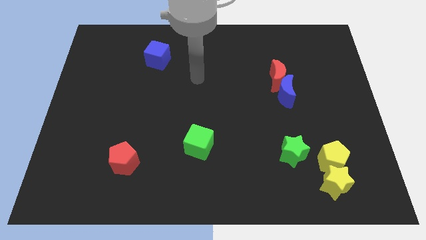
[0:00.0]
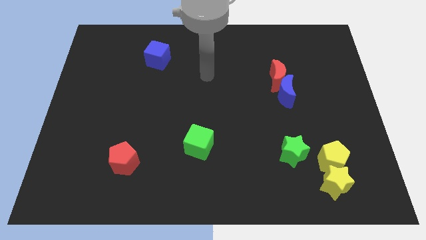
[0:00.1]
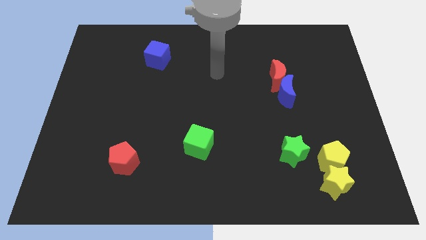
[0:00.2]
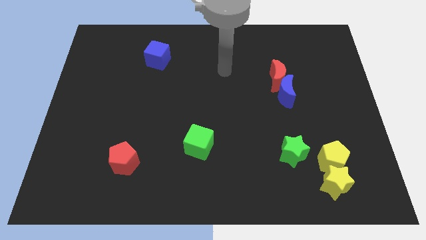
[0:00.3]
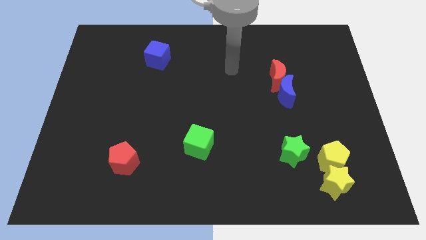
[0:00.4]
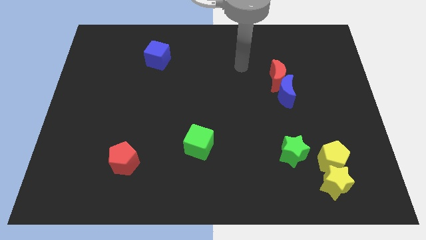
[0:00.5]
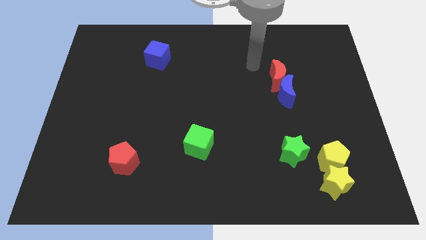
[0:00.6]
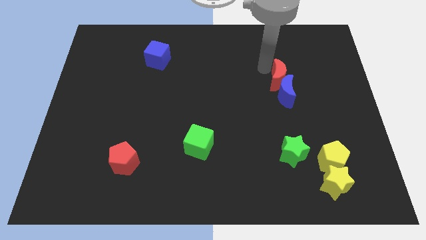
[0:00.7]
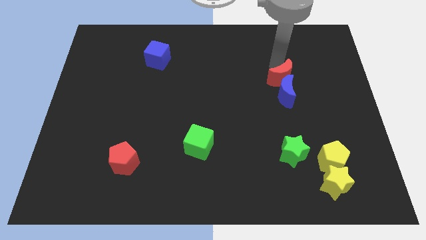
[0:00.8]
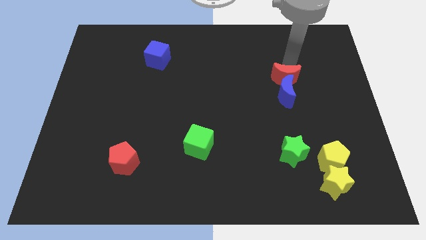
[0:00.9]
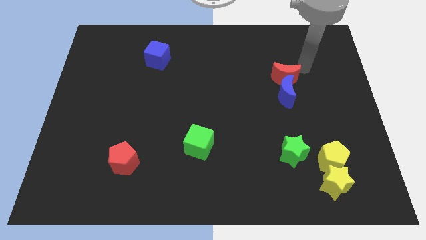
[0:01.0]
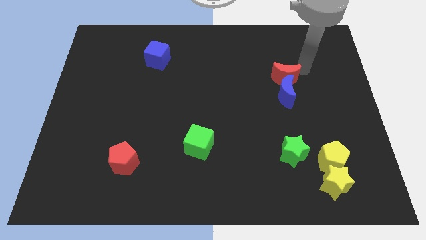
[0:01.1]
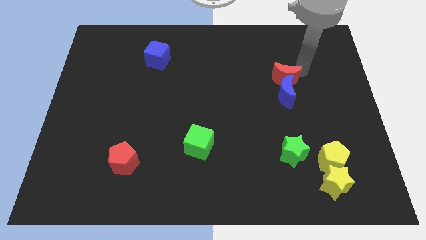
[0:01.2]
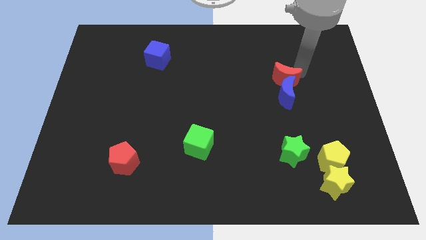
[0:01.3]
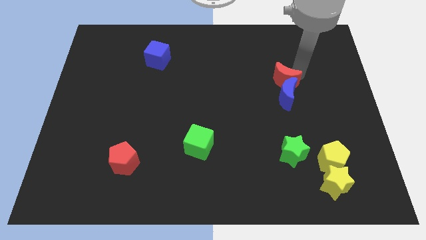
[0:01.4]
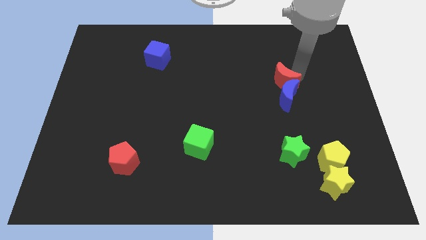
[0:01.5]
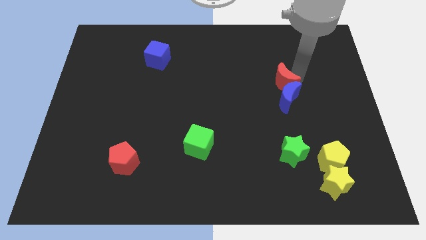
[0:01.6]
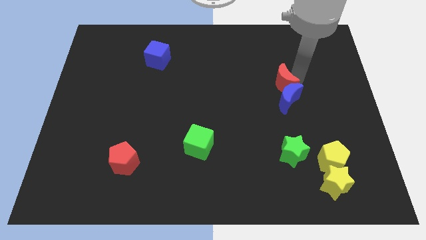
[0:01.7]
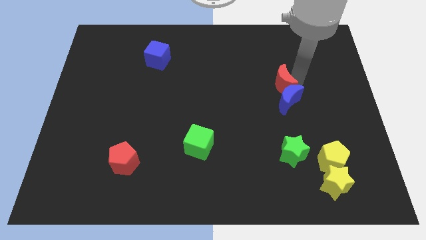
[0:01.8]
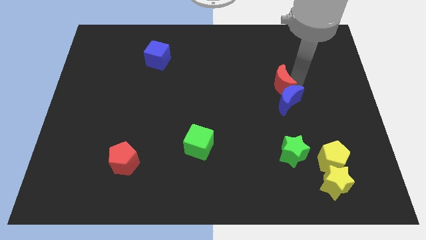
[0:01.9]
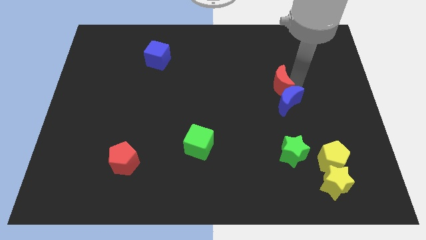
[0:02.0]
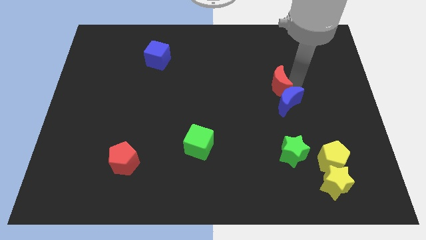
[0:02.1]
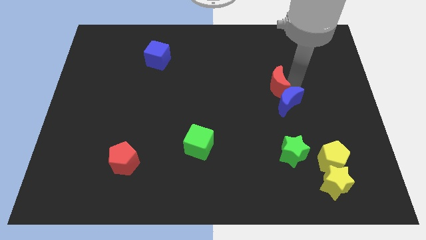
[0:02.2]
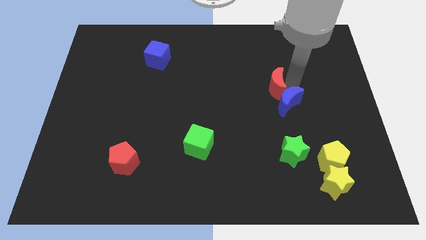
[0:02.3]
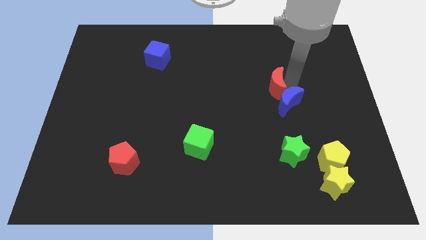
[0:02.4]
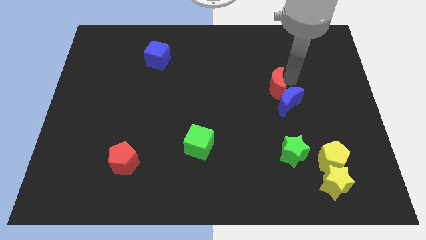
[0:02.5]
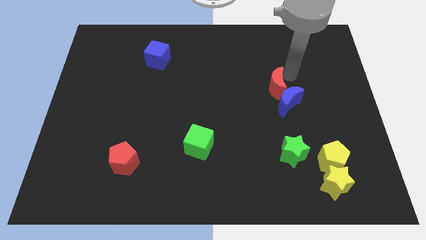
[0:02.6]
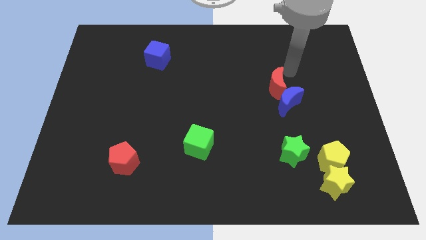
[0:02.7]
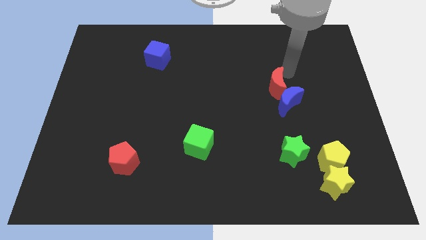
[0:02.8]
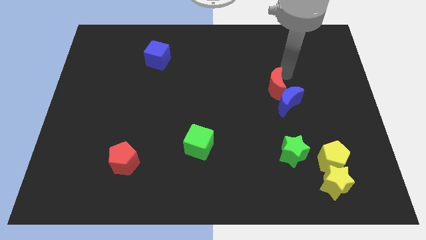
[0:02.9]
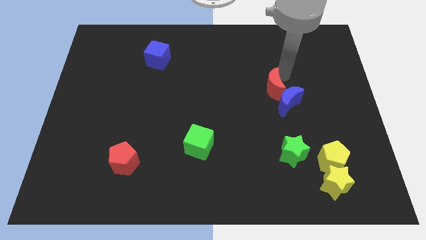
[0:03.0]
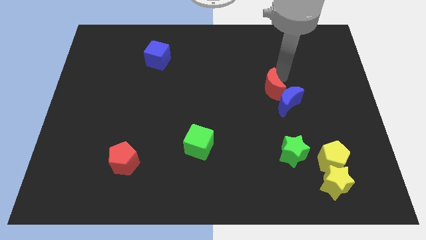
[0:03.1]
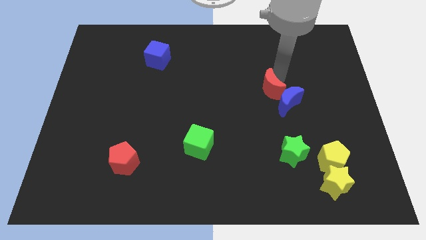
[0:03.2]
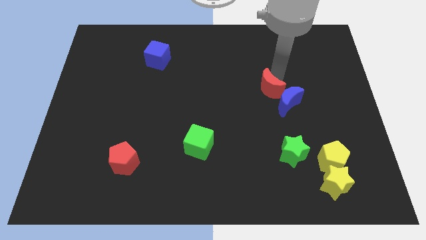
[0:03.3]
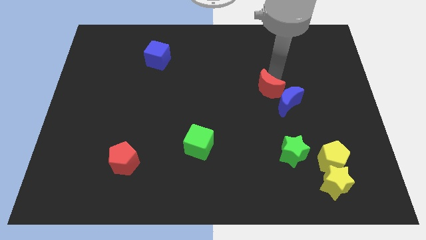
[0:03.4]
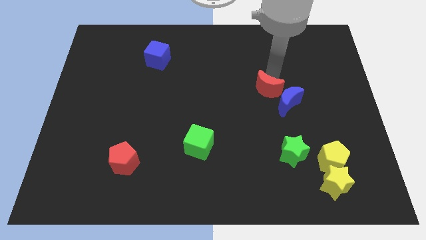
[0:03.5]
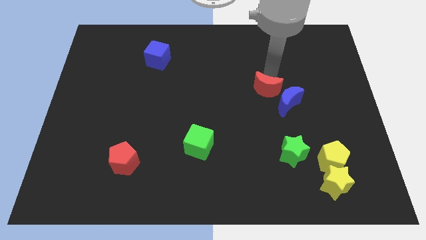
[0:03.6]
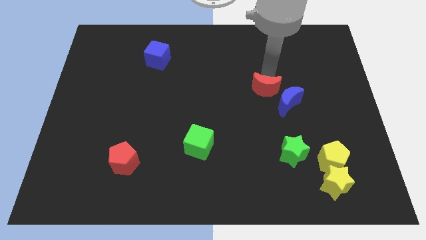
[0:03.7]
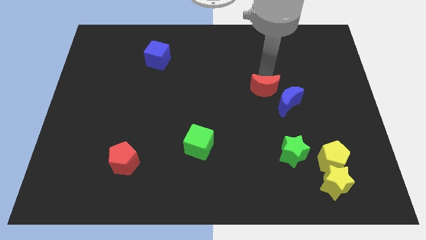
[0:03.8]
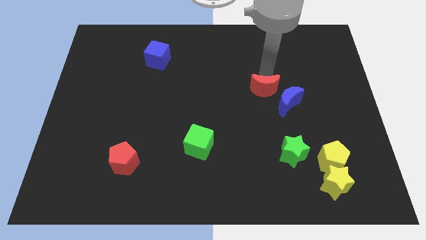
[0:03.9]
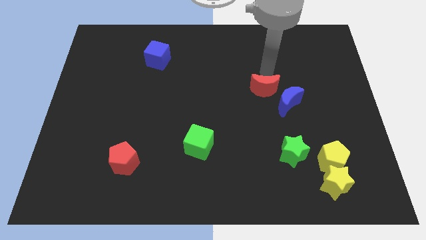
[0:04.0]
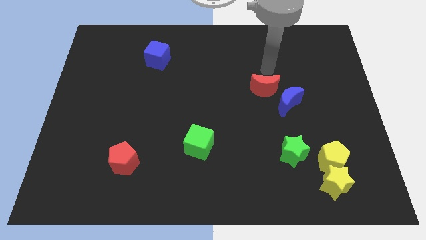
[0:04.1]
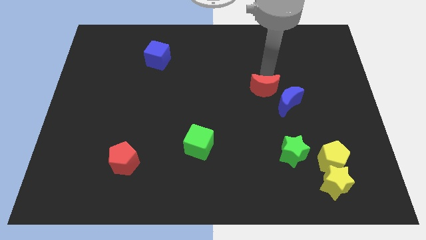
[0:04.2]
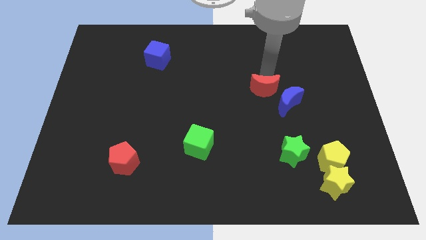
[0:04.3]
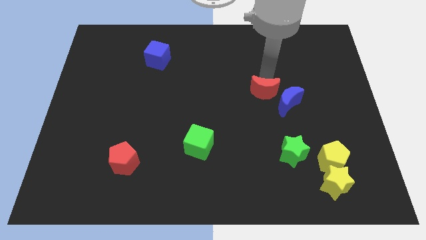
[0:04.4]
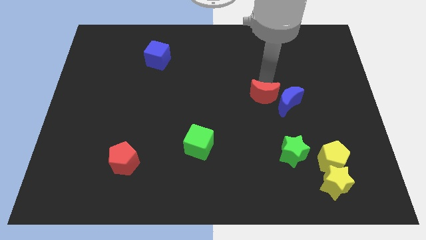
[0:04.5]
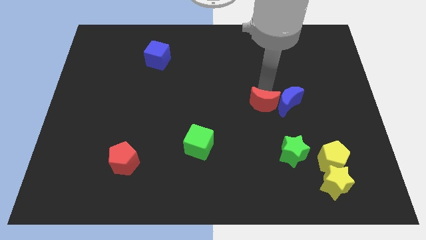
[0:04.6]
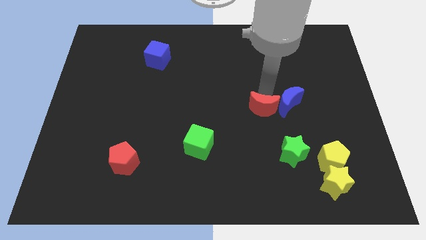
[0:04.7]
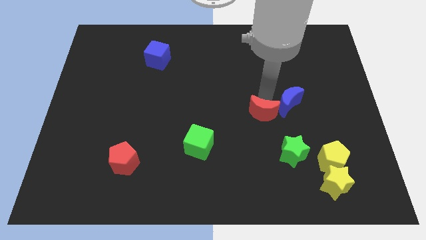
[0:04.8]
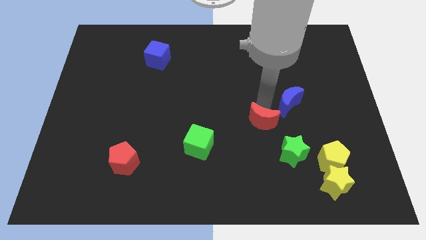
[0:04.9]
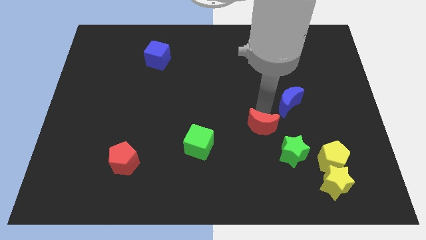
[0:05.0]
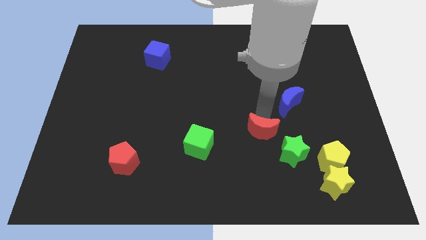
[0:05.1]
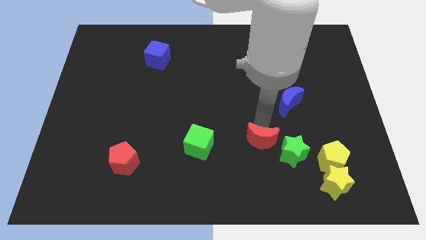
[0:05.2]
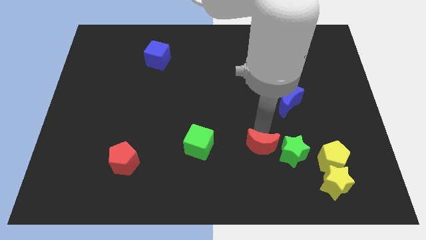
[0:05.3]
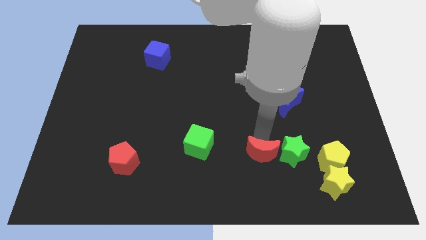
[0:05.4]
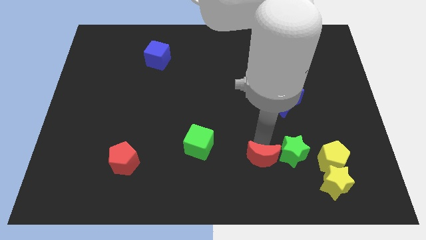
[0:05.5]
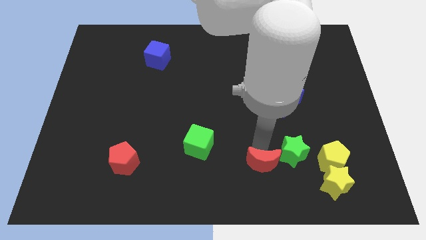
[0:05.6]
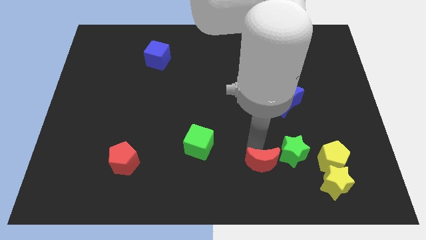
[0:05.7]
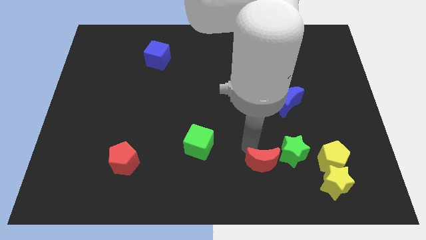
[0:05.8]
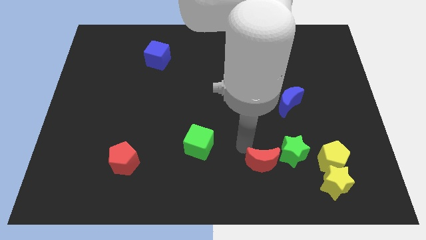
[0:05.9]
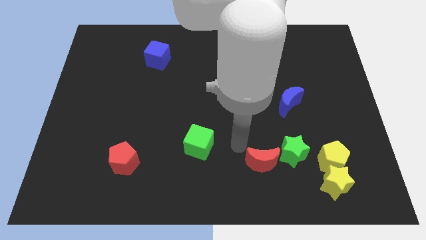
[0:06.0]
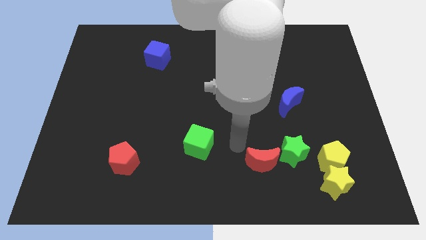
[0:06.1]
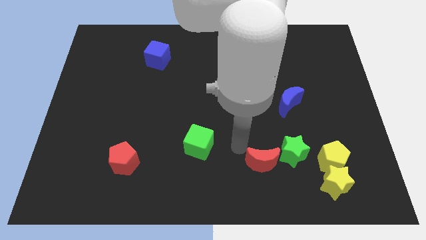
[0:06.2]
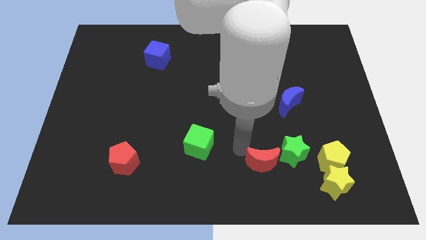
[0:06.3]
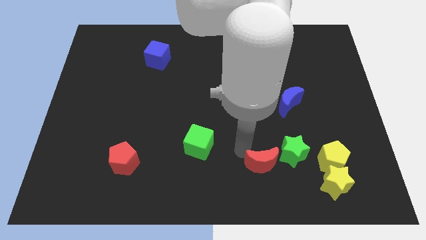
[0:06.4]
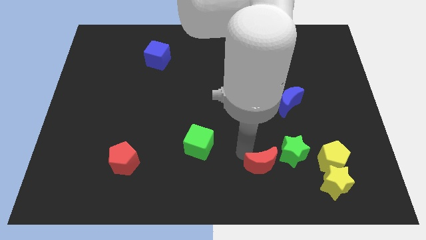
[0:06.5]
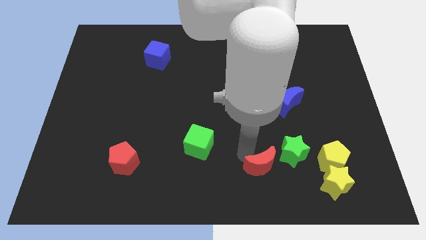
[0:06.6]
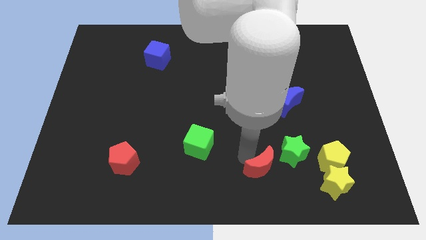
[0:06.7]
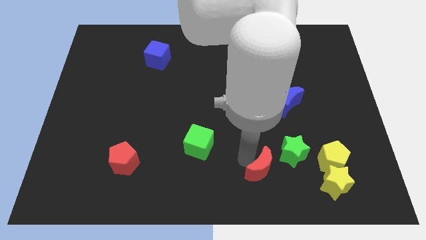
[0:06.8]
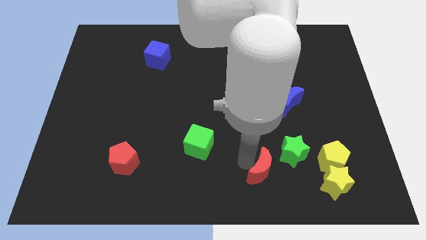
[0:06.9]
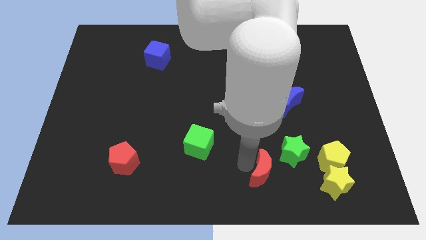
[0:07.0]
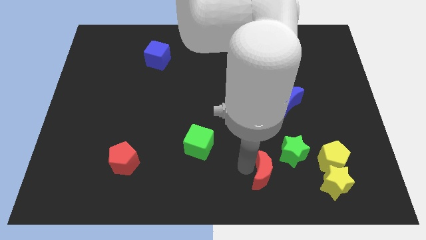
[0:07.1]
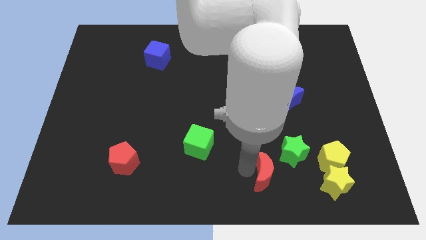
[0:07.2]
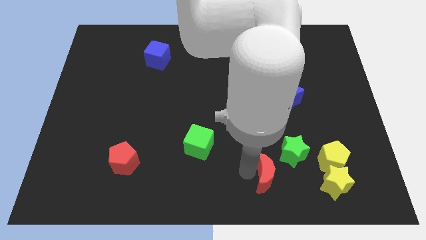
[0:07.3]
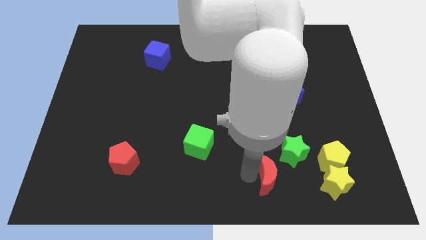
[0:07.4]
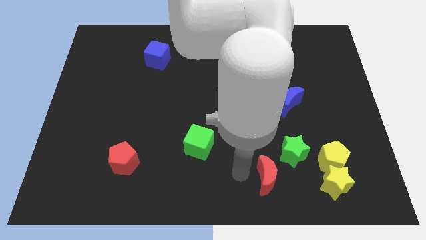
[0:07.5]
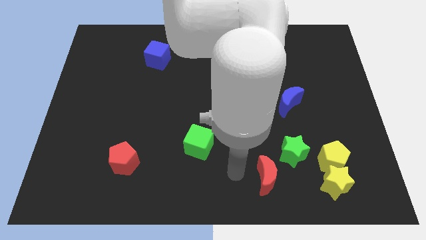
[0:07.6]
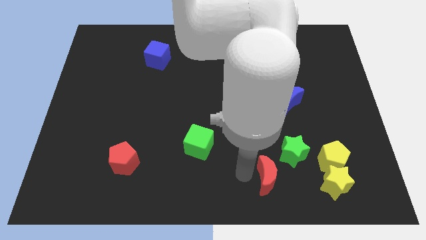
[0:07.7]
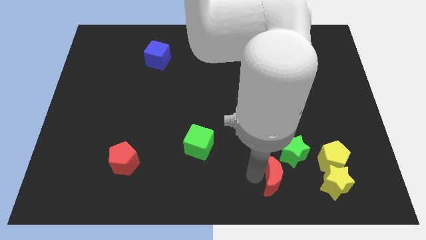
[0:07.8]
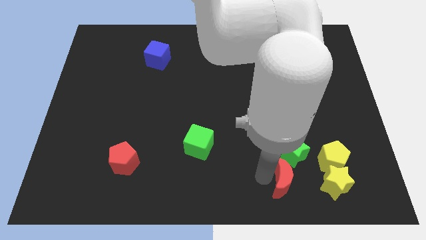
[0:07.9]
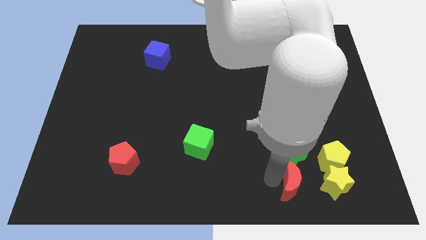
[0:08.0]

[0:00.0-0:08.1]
push the red moon to the bottom left side of the yellow pentagon

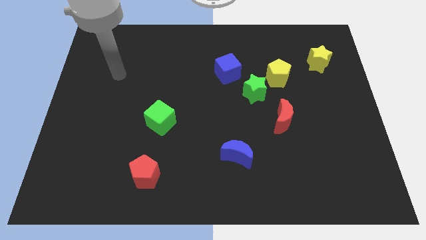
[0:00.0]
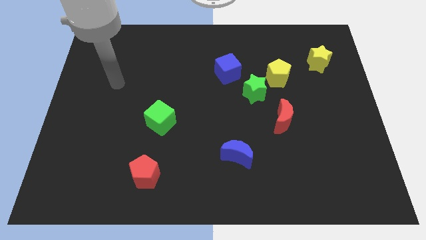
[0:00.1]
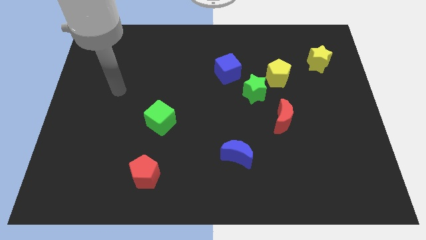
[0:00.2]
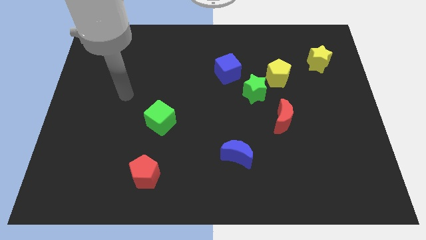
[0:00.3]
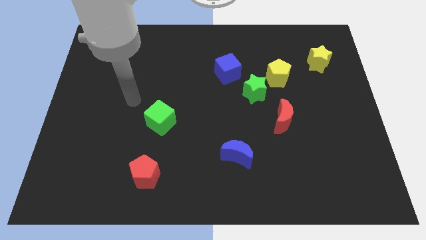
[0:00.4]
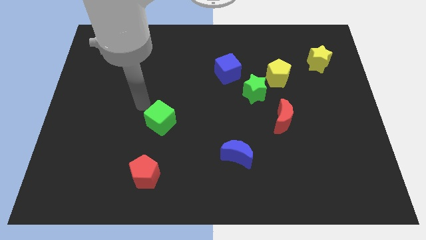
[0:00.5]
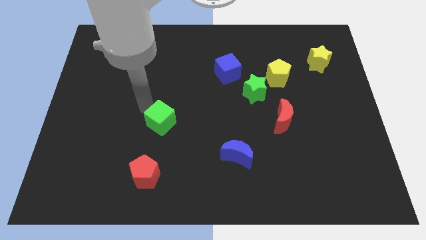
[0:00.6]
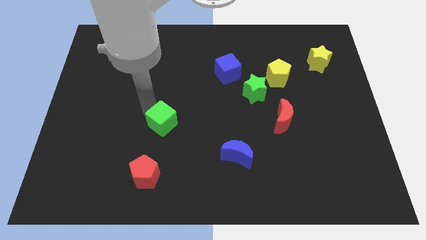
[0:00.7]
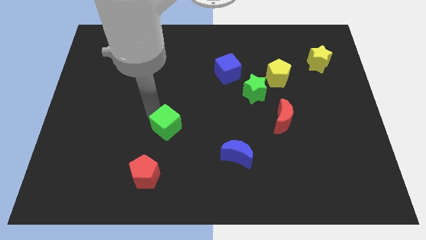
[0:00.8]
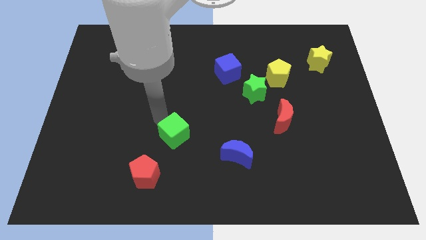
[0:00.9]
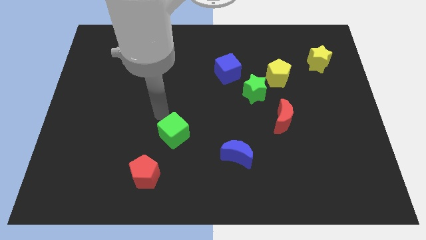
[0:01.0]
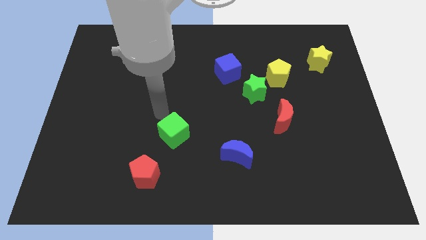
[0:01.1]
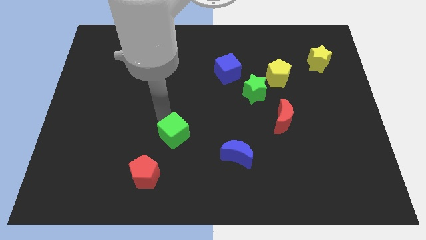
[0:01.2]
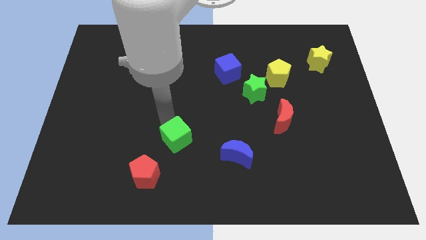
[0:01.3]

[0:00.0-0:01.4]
slide the green cube to the left of the blue moon
